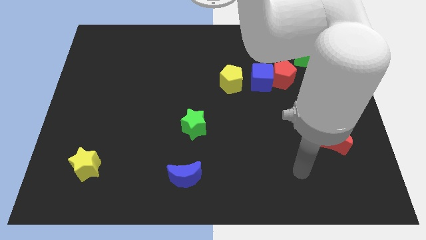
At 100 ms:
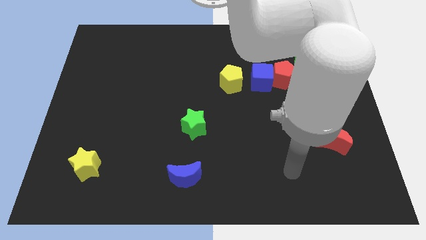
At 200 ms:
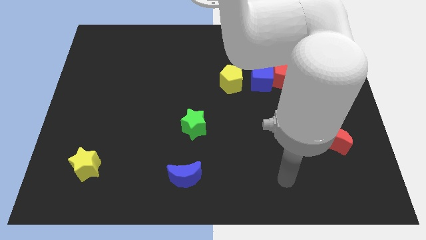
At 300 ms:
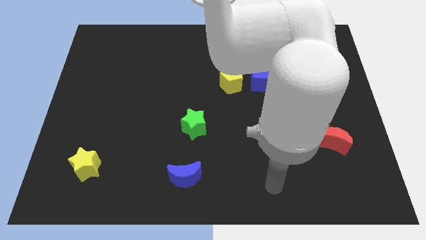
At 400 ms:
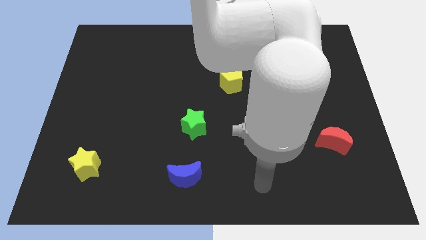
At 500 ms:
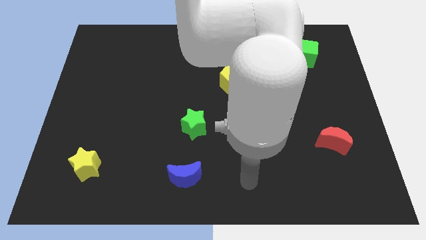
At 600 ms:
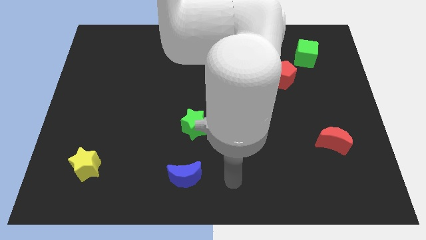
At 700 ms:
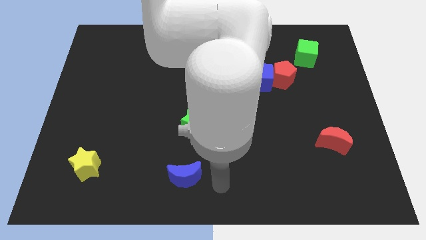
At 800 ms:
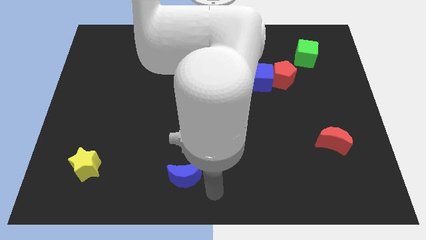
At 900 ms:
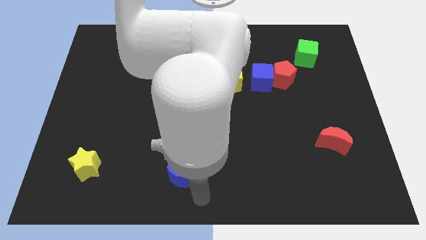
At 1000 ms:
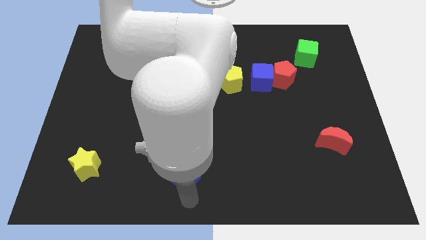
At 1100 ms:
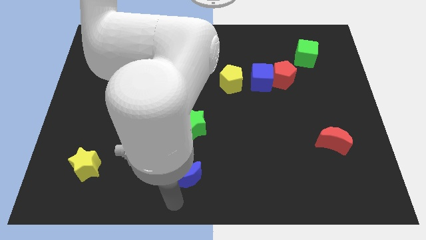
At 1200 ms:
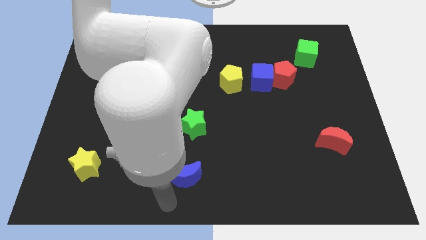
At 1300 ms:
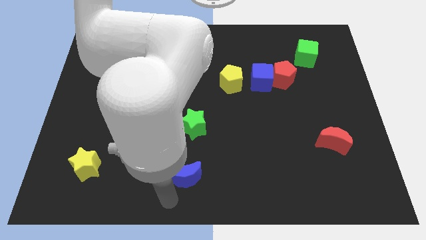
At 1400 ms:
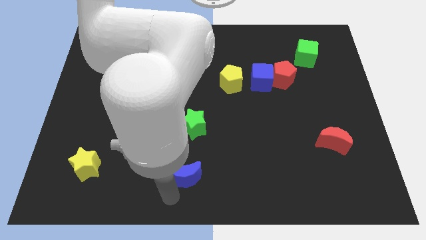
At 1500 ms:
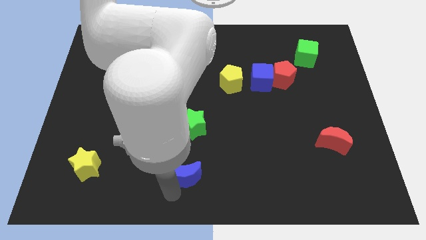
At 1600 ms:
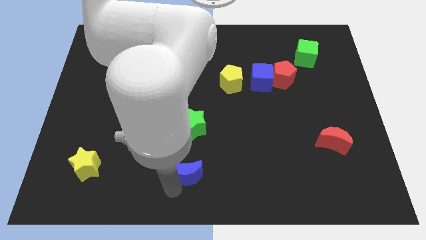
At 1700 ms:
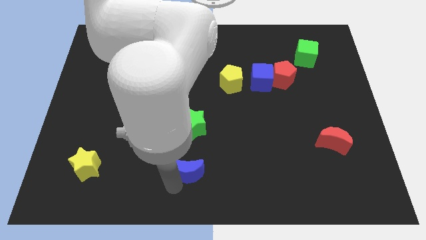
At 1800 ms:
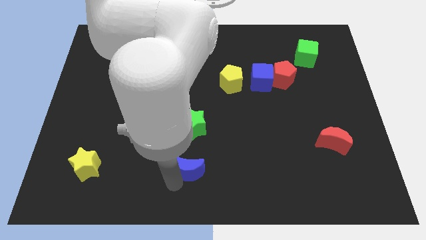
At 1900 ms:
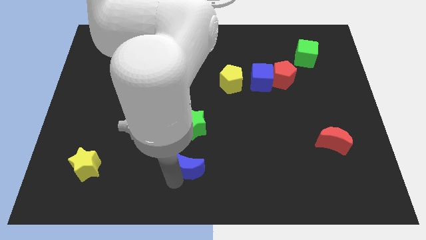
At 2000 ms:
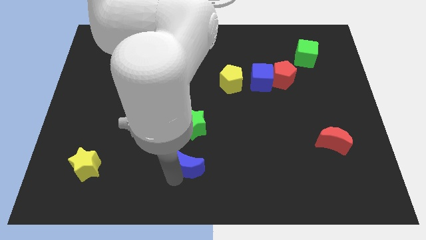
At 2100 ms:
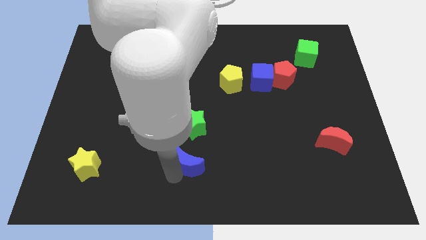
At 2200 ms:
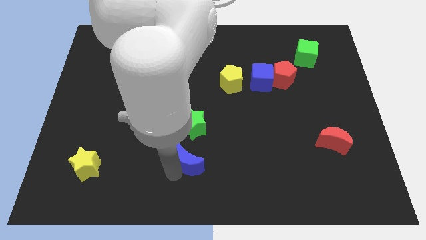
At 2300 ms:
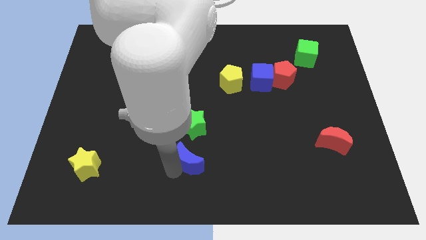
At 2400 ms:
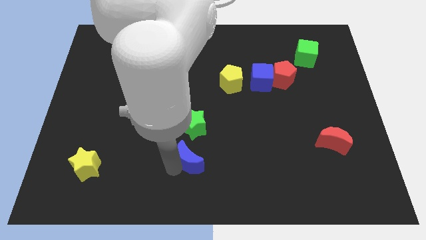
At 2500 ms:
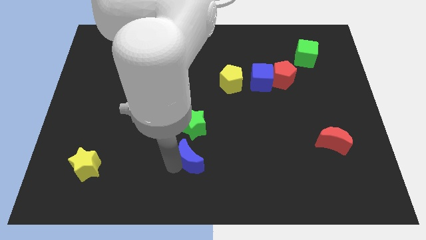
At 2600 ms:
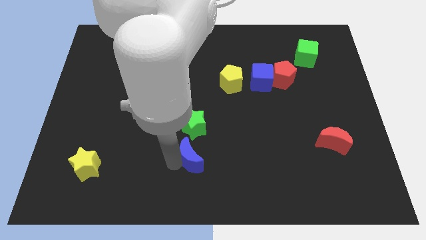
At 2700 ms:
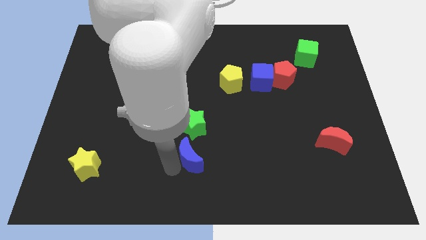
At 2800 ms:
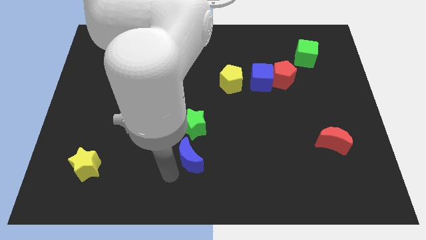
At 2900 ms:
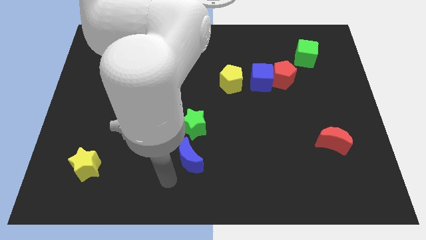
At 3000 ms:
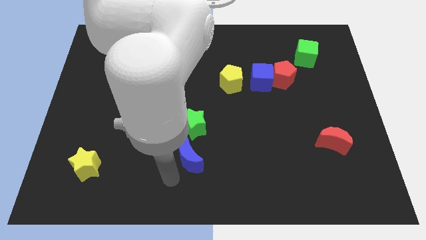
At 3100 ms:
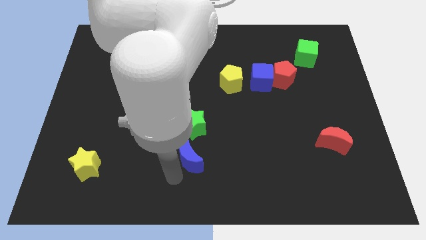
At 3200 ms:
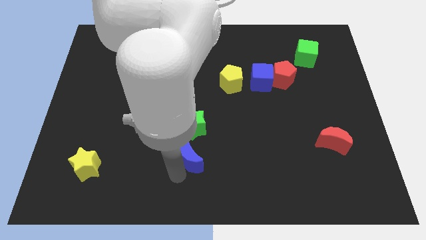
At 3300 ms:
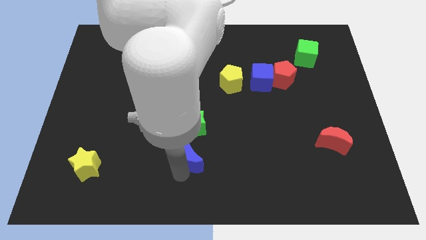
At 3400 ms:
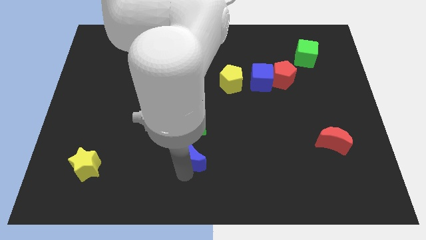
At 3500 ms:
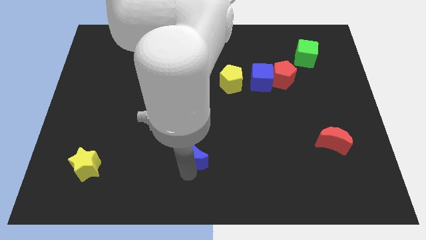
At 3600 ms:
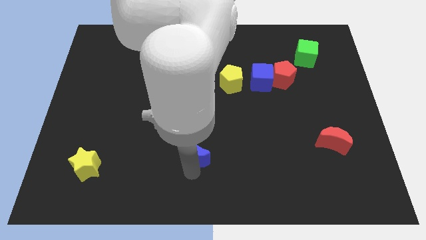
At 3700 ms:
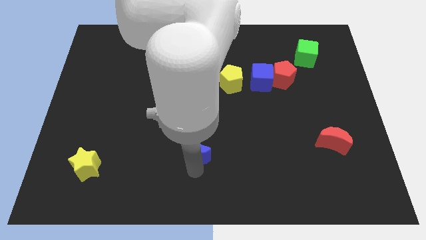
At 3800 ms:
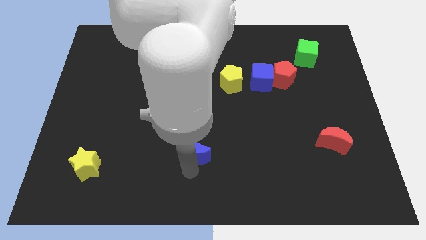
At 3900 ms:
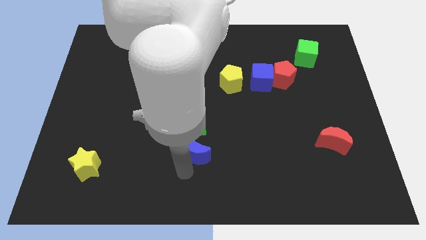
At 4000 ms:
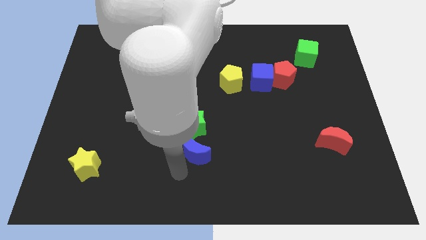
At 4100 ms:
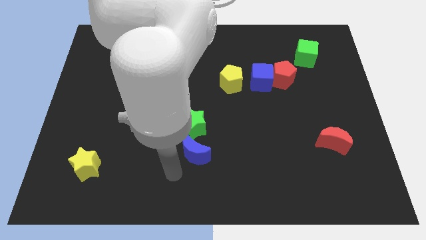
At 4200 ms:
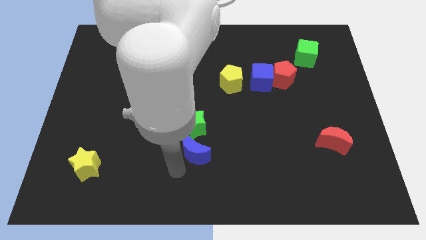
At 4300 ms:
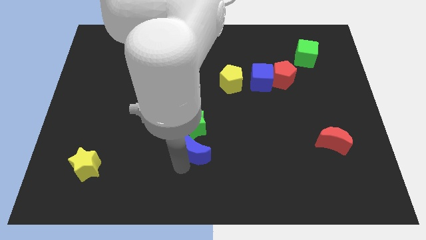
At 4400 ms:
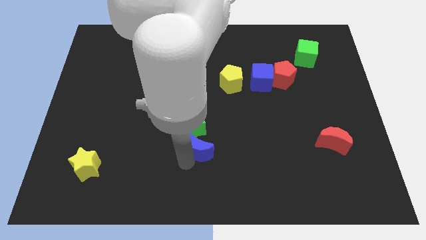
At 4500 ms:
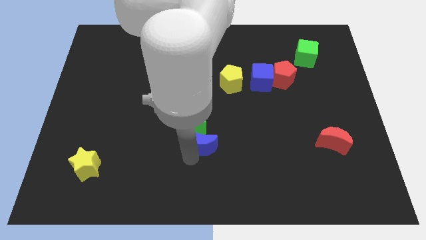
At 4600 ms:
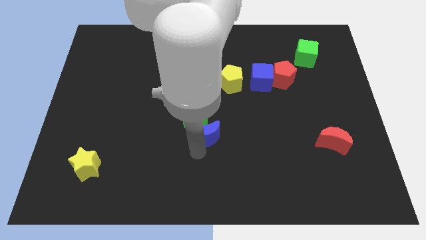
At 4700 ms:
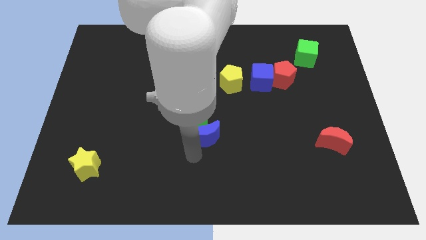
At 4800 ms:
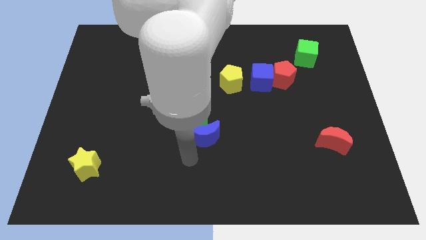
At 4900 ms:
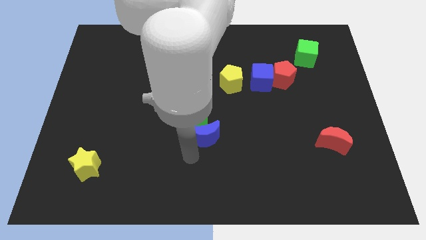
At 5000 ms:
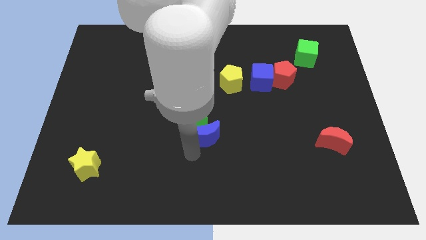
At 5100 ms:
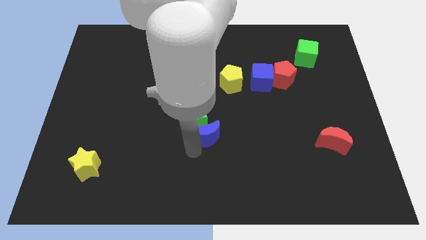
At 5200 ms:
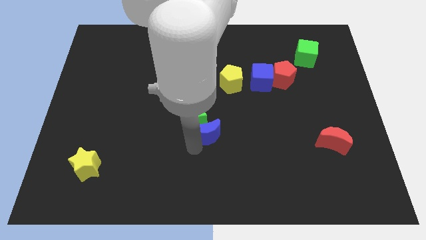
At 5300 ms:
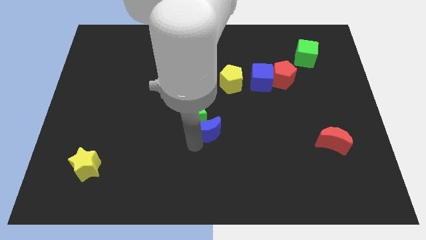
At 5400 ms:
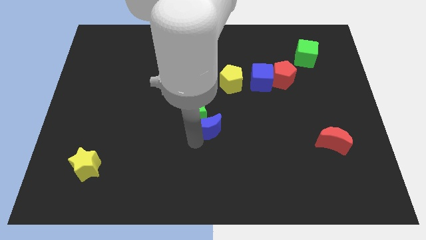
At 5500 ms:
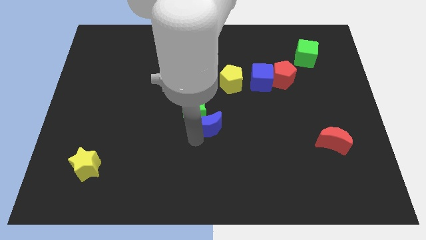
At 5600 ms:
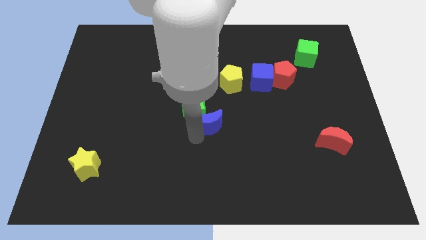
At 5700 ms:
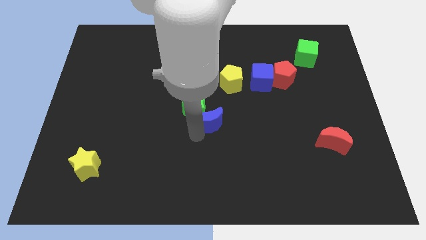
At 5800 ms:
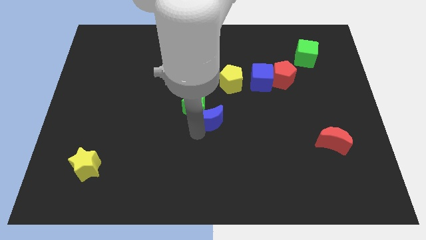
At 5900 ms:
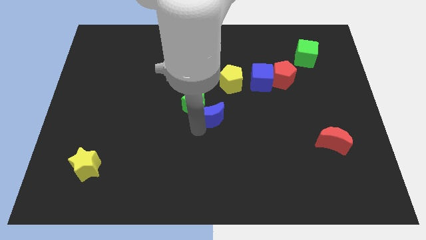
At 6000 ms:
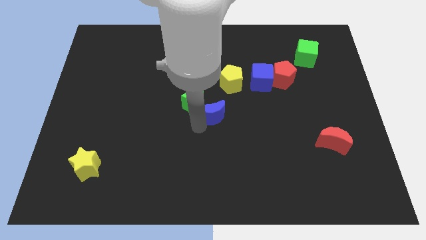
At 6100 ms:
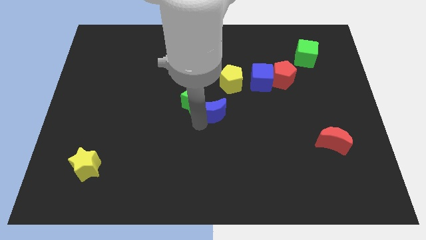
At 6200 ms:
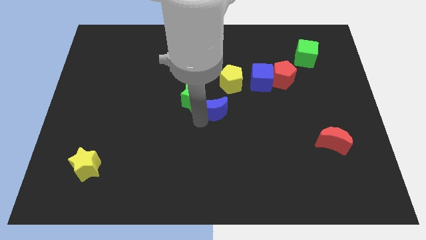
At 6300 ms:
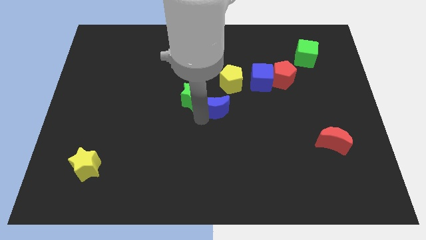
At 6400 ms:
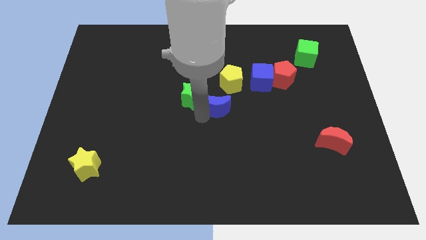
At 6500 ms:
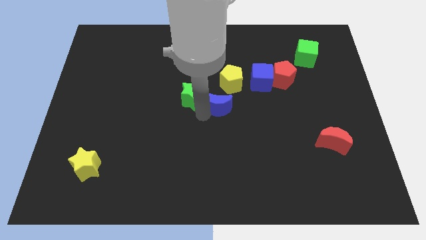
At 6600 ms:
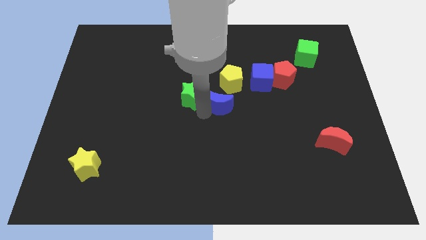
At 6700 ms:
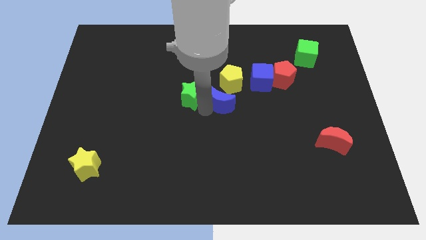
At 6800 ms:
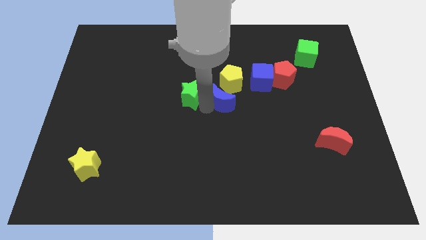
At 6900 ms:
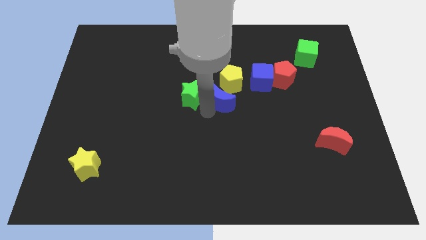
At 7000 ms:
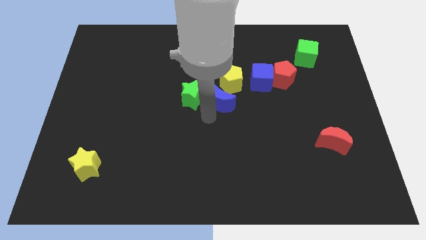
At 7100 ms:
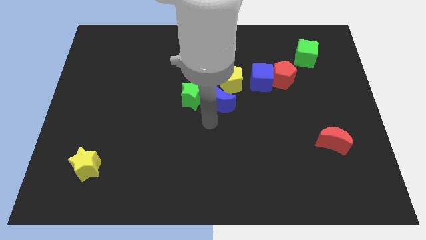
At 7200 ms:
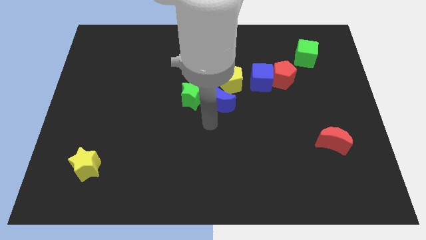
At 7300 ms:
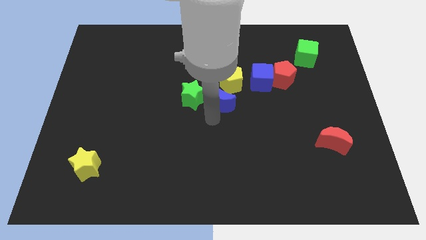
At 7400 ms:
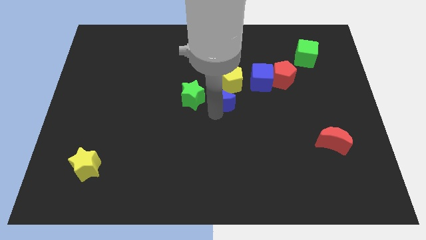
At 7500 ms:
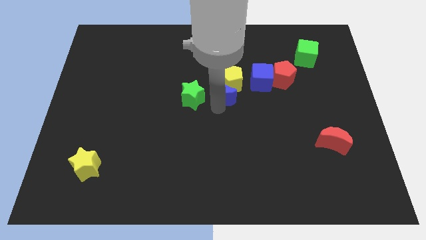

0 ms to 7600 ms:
slide the blue moon next to the yellow pentagon
